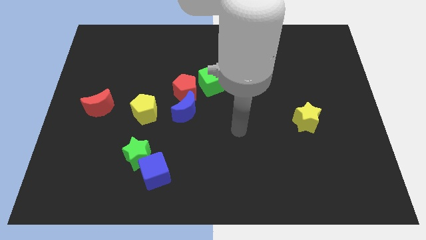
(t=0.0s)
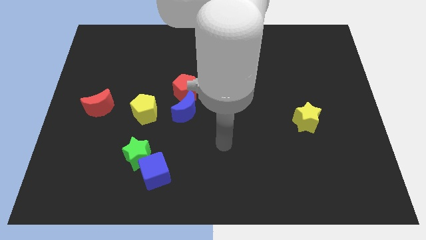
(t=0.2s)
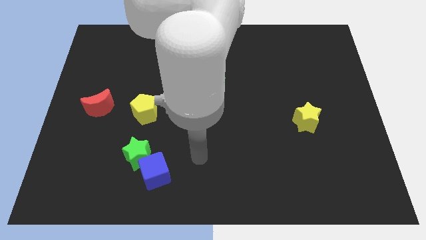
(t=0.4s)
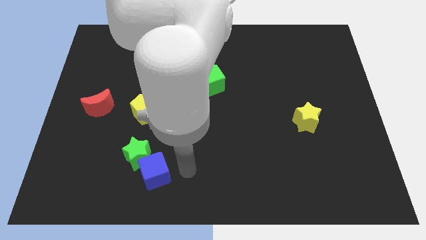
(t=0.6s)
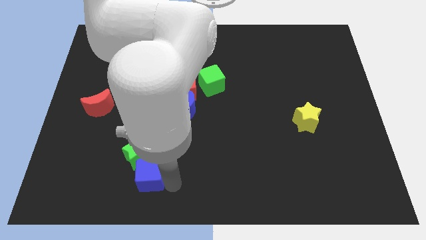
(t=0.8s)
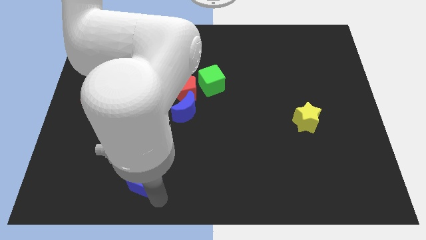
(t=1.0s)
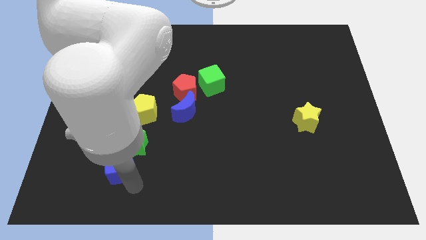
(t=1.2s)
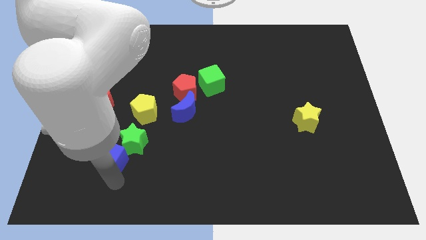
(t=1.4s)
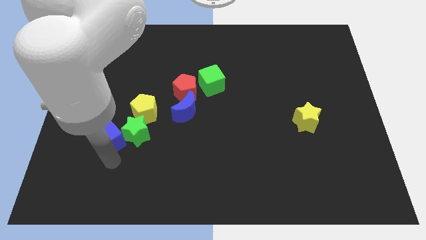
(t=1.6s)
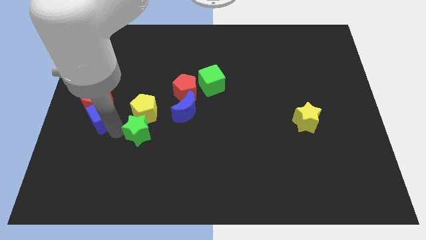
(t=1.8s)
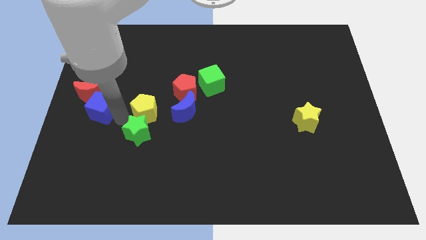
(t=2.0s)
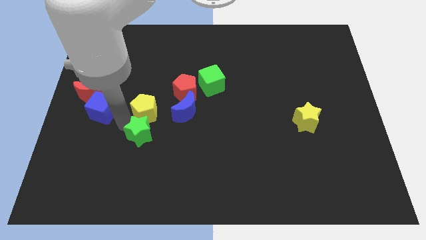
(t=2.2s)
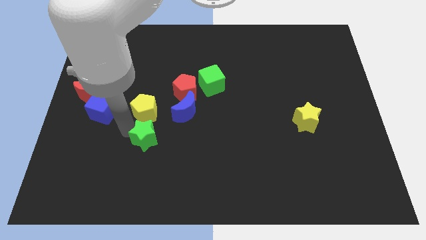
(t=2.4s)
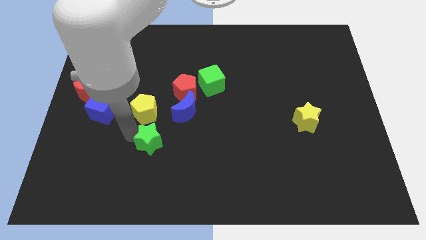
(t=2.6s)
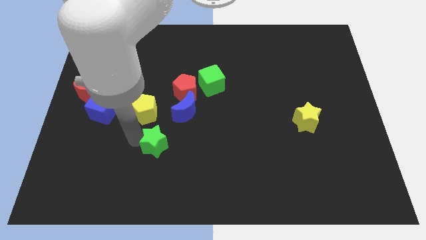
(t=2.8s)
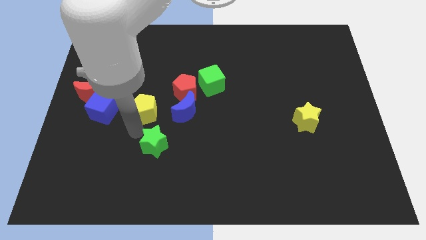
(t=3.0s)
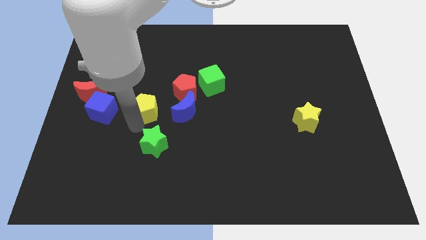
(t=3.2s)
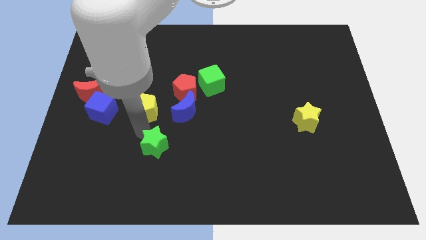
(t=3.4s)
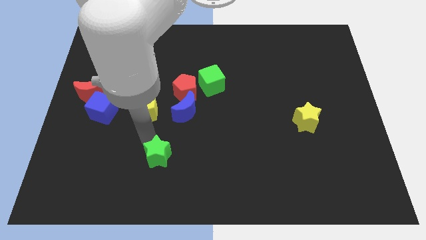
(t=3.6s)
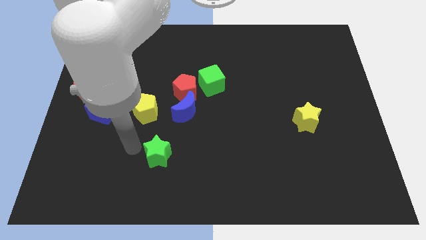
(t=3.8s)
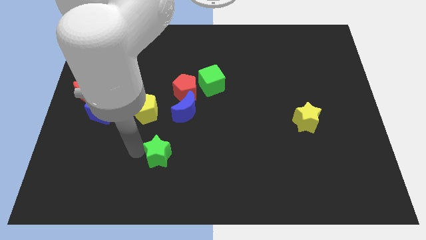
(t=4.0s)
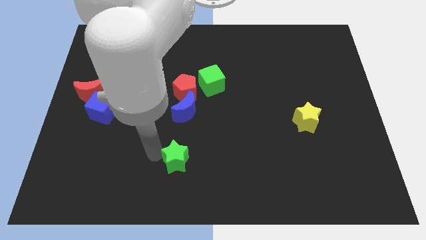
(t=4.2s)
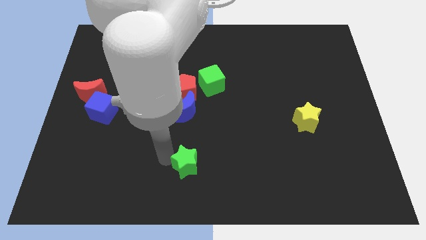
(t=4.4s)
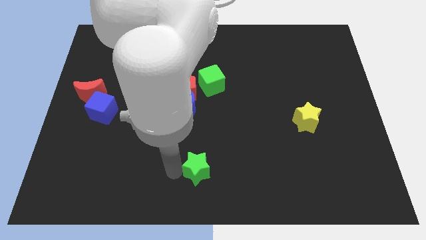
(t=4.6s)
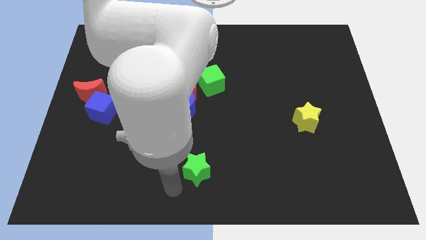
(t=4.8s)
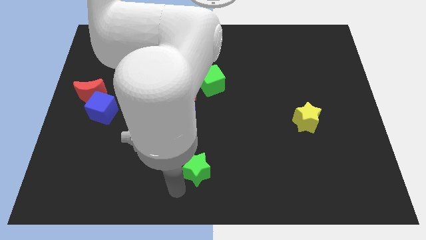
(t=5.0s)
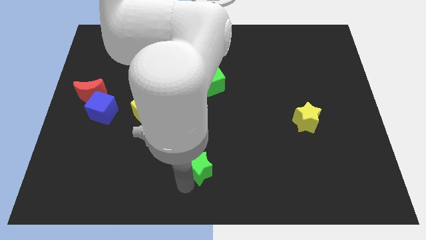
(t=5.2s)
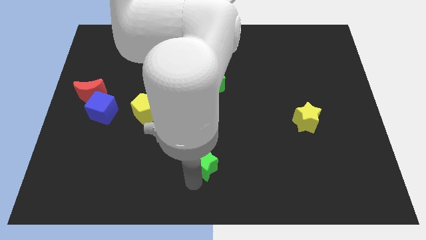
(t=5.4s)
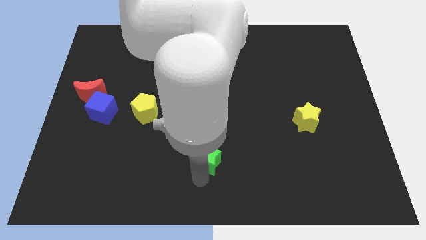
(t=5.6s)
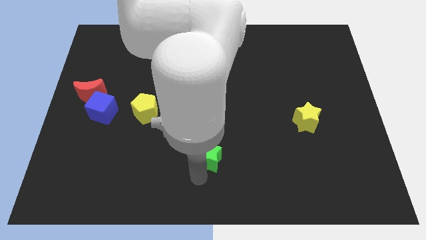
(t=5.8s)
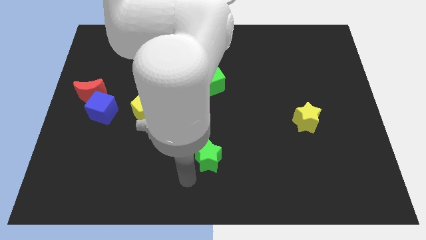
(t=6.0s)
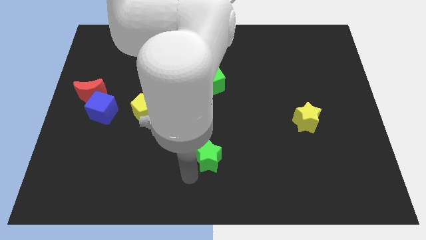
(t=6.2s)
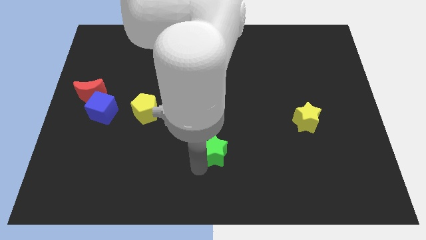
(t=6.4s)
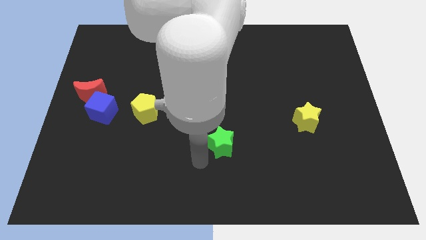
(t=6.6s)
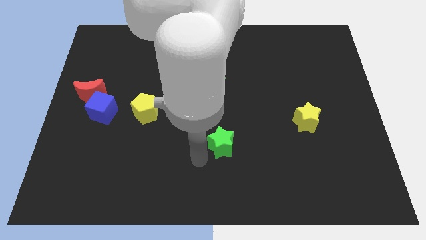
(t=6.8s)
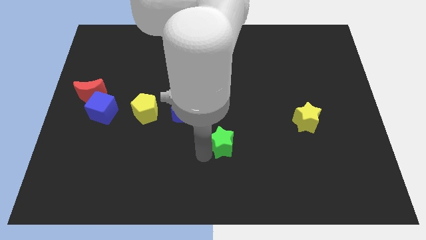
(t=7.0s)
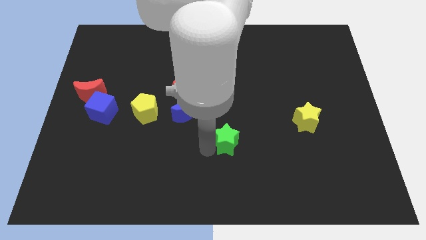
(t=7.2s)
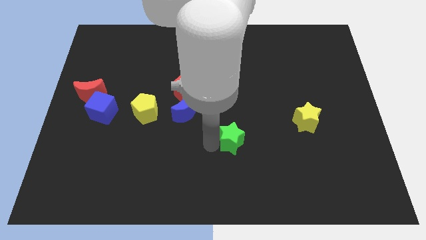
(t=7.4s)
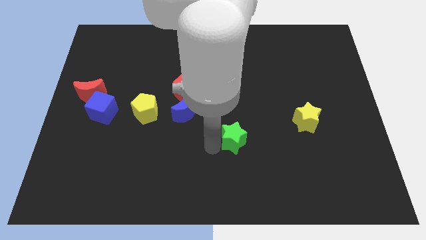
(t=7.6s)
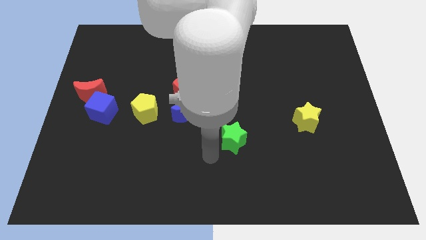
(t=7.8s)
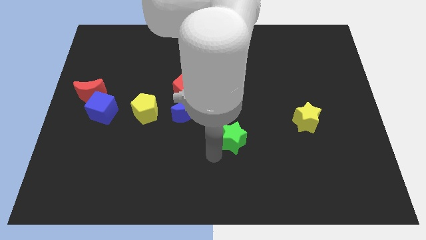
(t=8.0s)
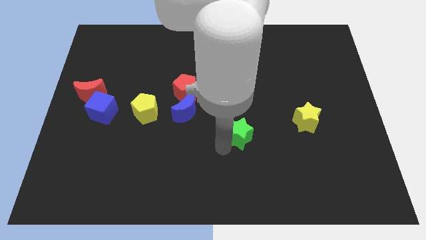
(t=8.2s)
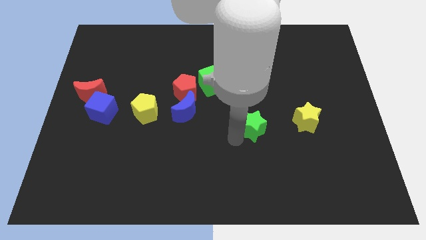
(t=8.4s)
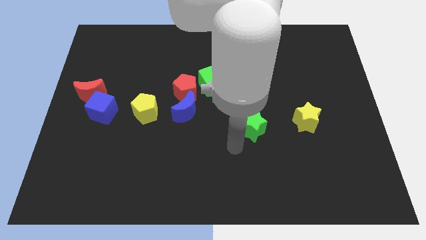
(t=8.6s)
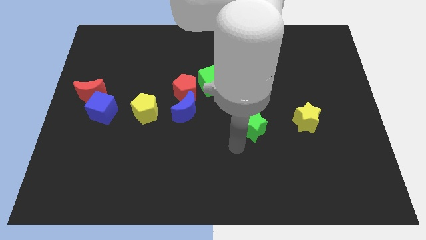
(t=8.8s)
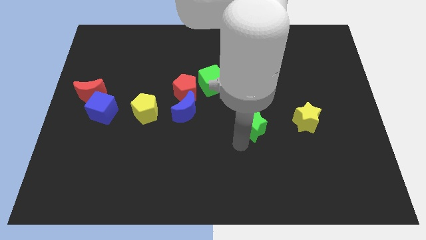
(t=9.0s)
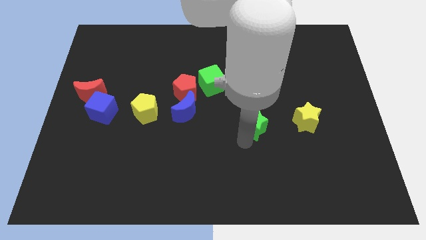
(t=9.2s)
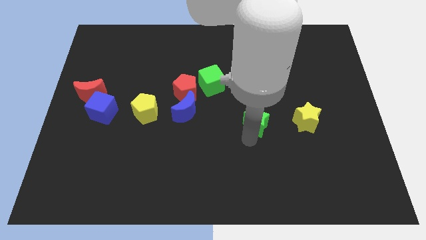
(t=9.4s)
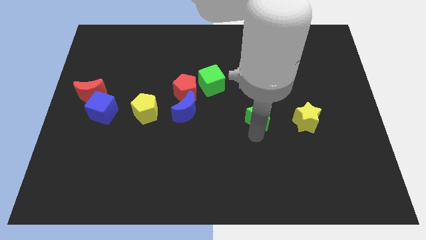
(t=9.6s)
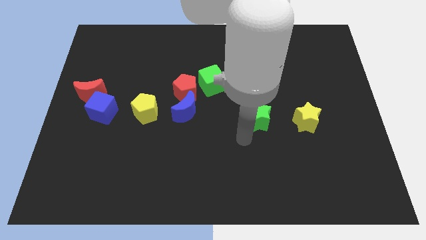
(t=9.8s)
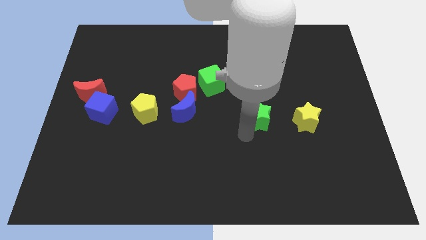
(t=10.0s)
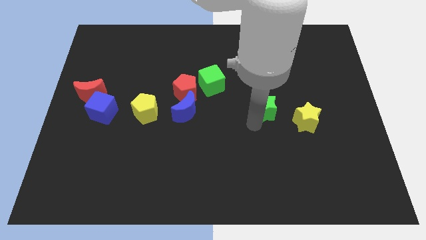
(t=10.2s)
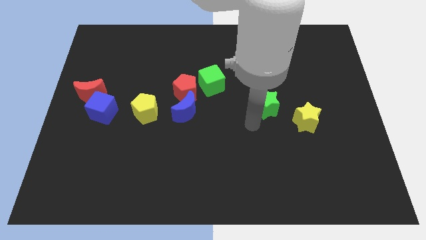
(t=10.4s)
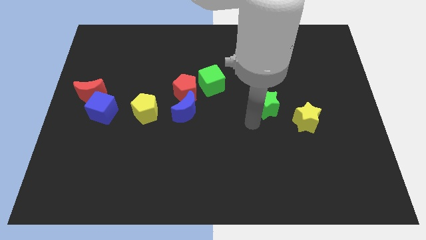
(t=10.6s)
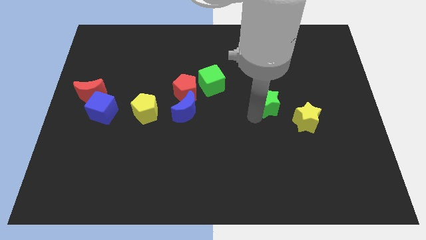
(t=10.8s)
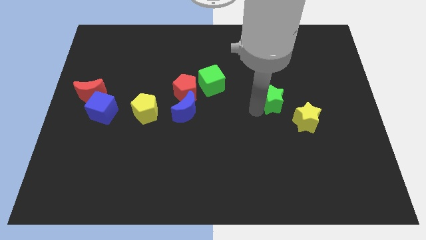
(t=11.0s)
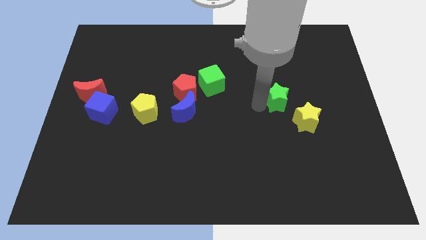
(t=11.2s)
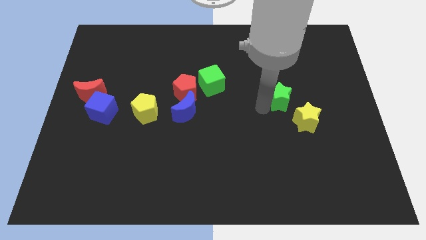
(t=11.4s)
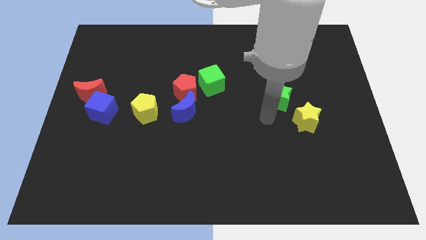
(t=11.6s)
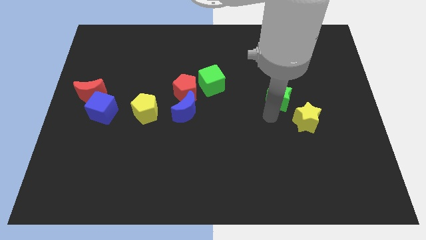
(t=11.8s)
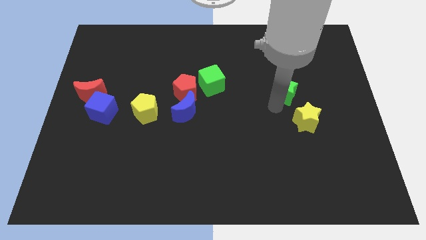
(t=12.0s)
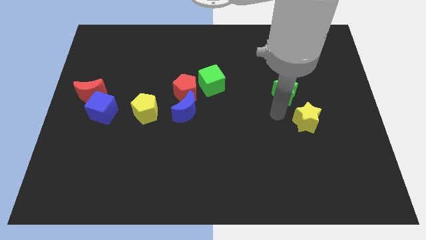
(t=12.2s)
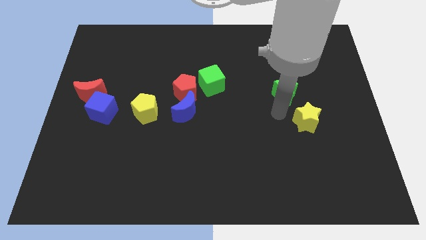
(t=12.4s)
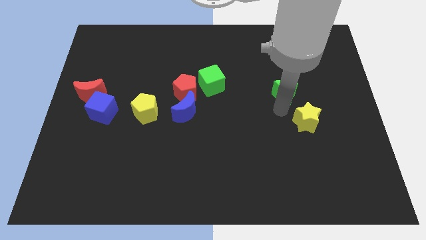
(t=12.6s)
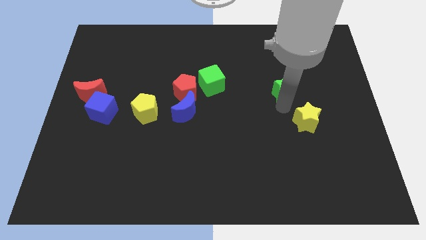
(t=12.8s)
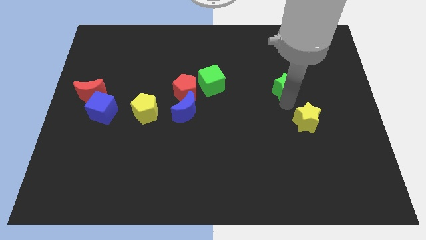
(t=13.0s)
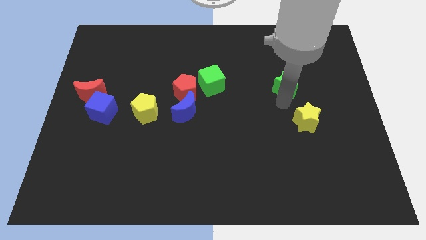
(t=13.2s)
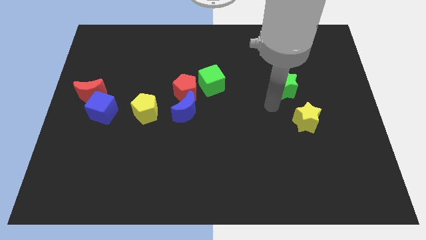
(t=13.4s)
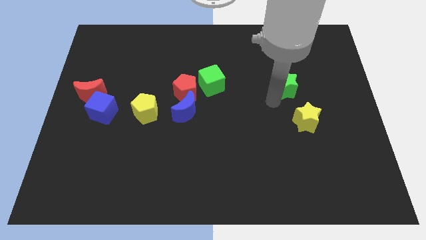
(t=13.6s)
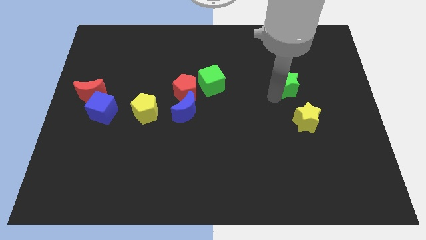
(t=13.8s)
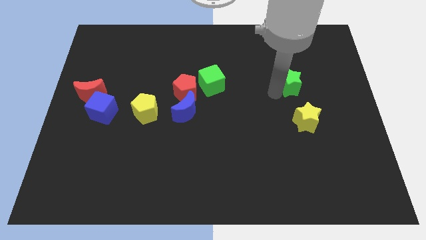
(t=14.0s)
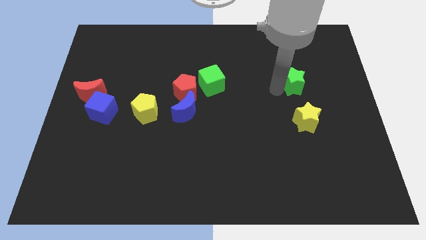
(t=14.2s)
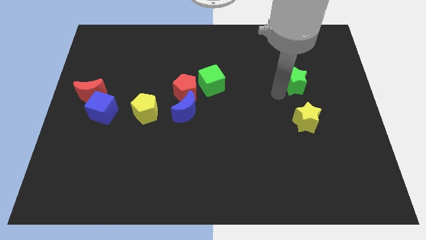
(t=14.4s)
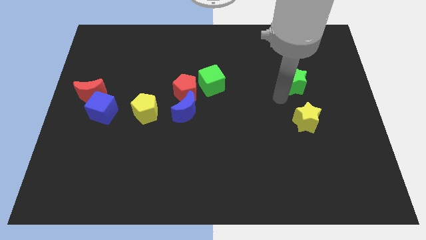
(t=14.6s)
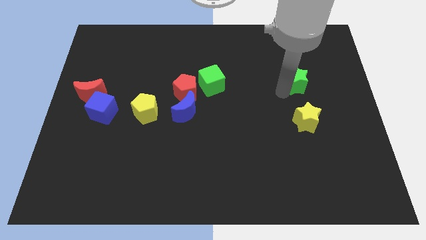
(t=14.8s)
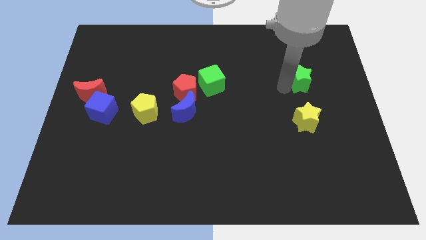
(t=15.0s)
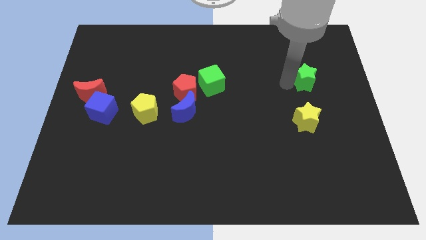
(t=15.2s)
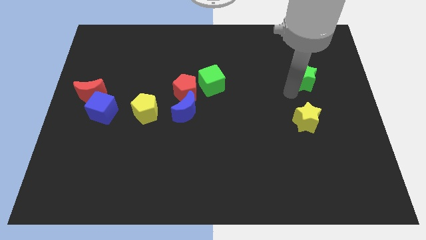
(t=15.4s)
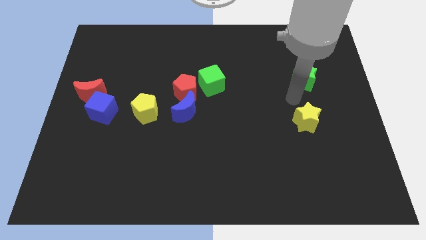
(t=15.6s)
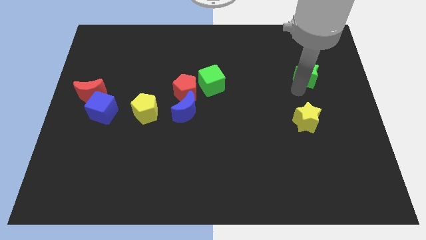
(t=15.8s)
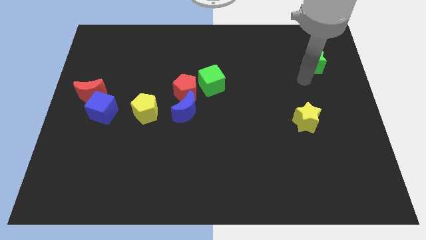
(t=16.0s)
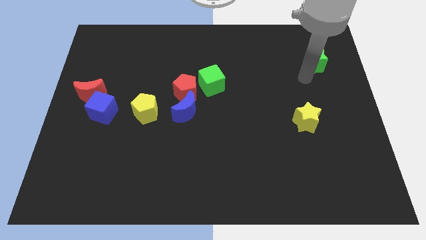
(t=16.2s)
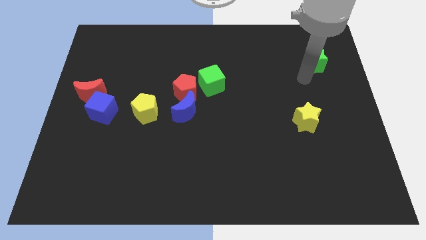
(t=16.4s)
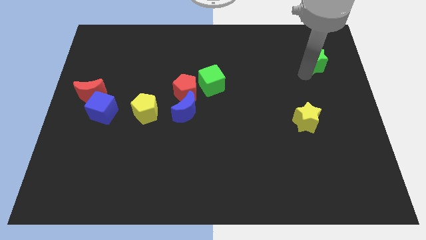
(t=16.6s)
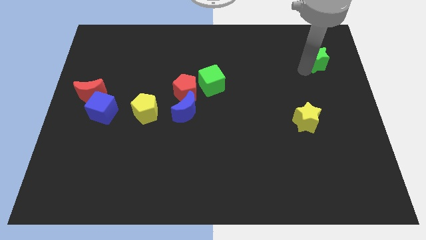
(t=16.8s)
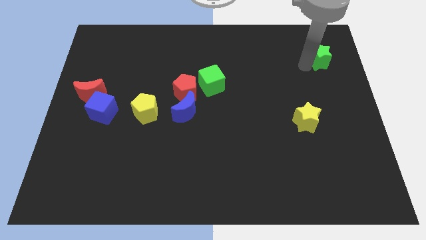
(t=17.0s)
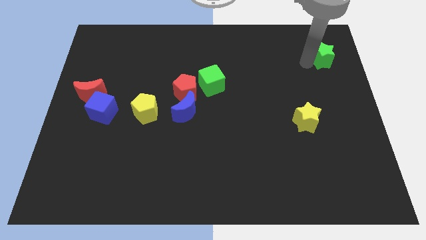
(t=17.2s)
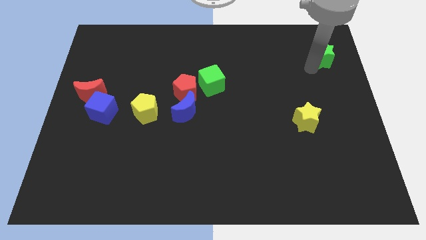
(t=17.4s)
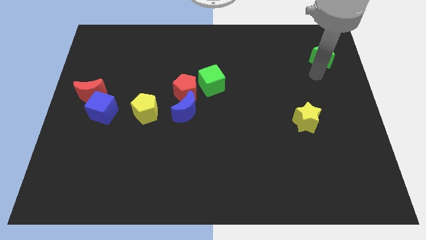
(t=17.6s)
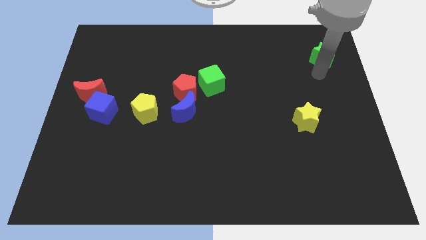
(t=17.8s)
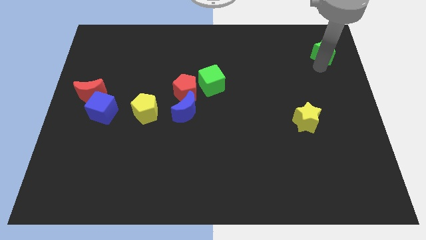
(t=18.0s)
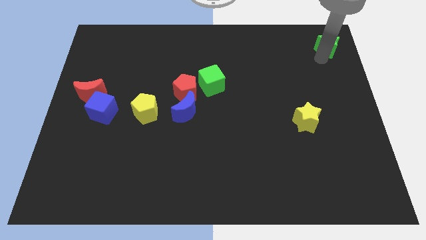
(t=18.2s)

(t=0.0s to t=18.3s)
slide the green star to the upper right corner
